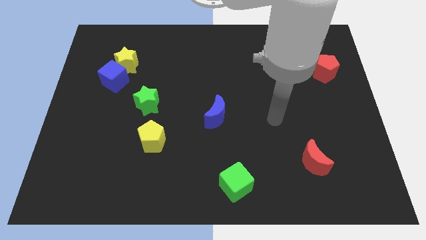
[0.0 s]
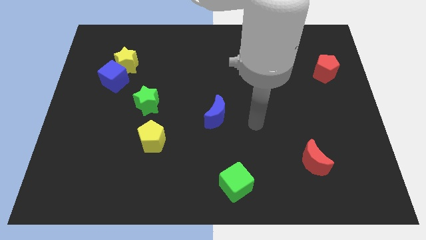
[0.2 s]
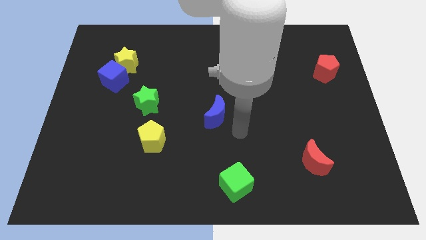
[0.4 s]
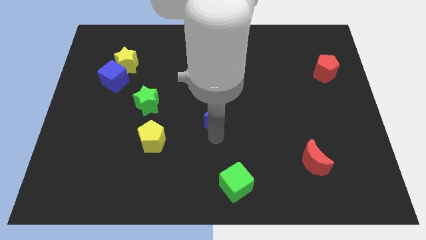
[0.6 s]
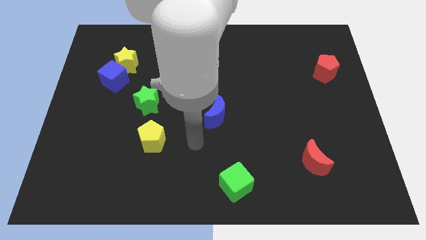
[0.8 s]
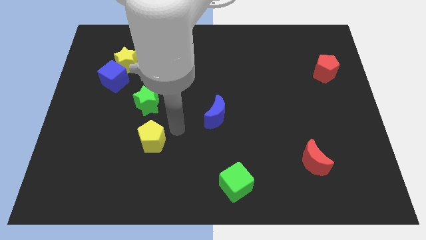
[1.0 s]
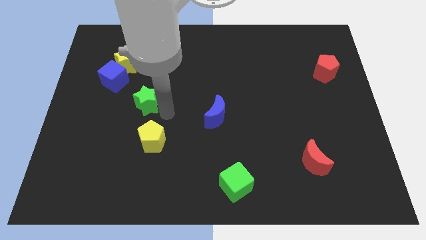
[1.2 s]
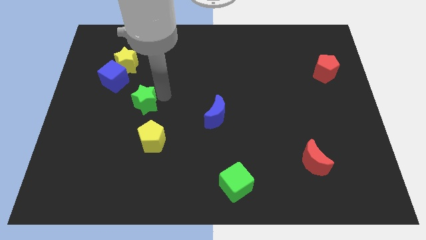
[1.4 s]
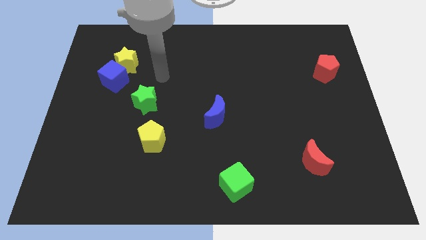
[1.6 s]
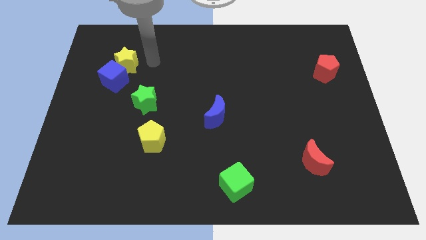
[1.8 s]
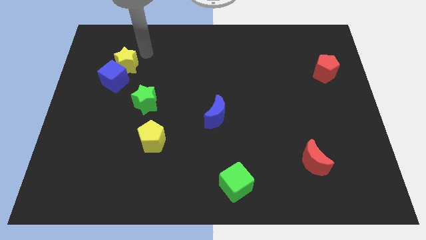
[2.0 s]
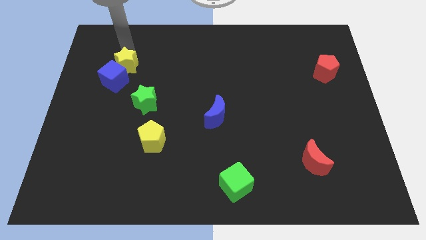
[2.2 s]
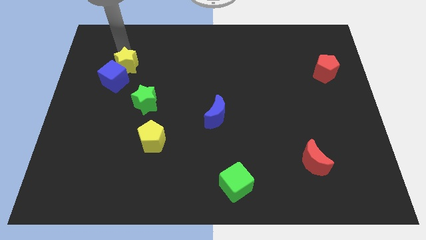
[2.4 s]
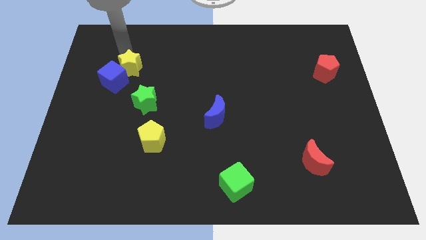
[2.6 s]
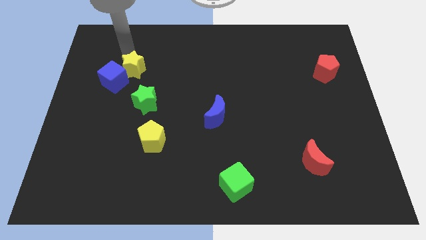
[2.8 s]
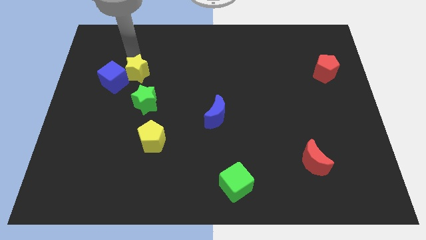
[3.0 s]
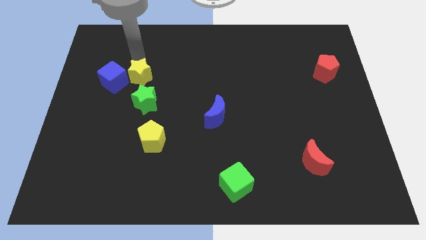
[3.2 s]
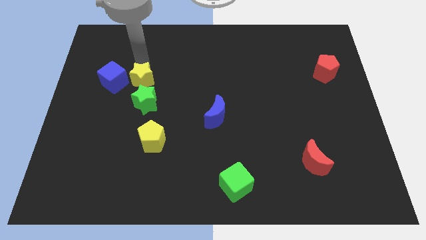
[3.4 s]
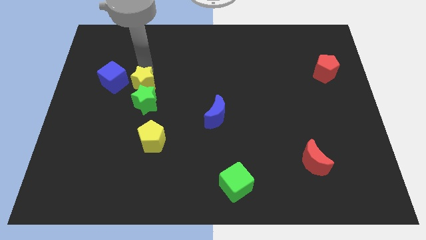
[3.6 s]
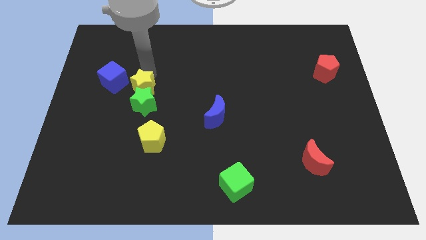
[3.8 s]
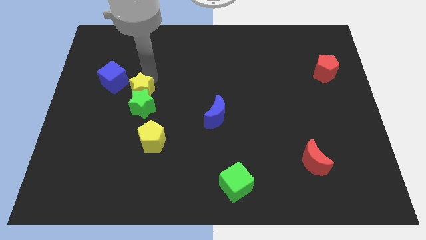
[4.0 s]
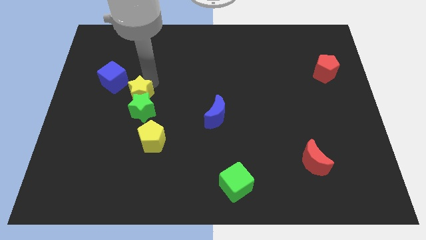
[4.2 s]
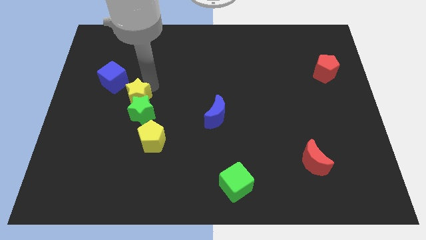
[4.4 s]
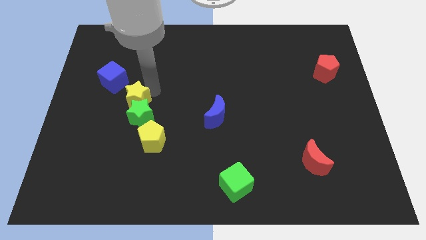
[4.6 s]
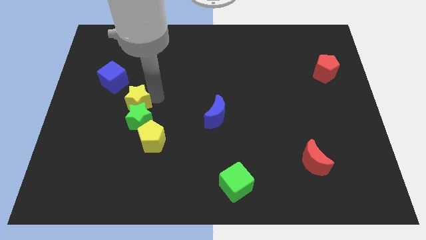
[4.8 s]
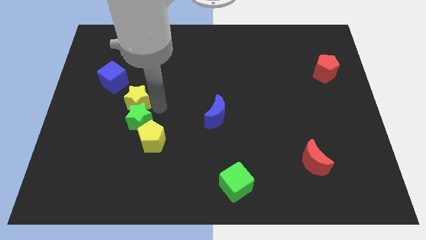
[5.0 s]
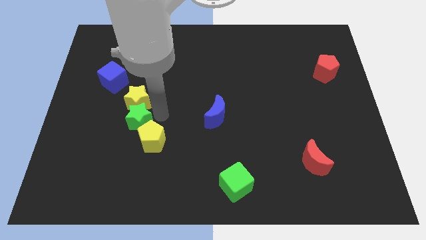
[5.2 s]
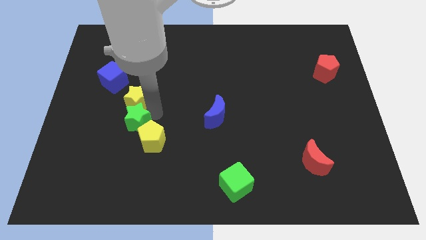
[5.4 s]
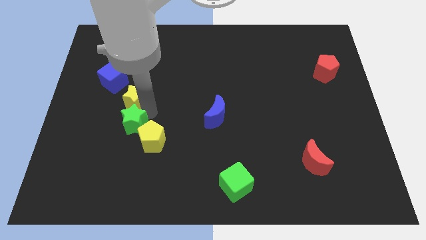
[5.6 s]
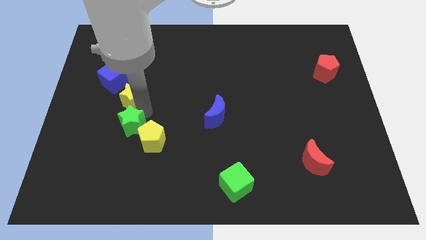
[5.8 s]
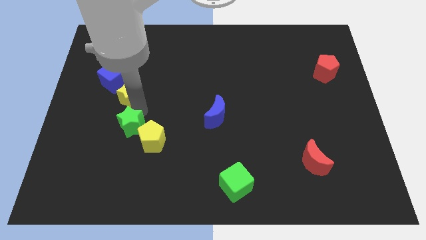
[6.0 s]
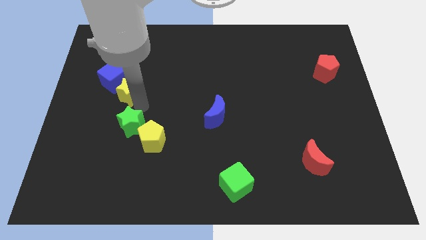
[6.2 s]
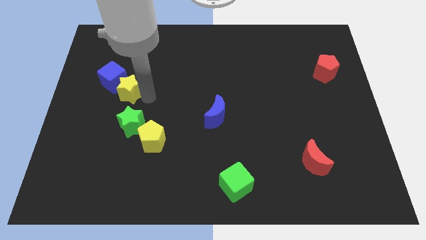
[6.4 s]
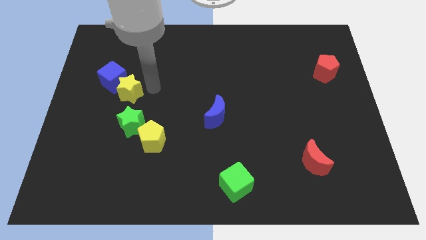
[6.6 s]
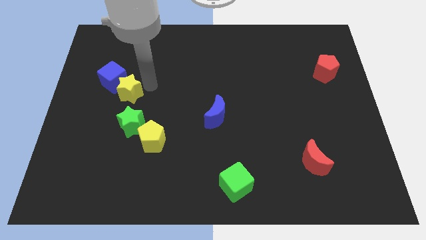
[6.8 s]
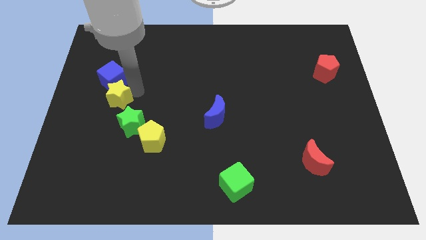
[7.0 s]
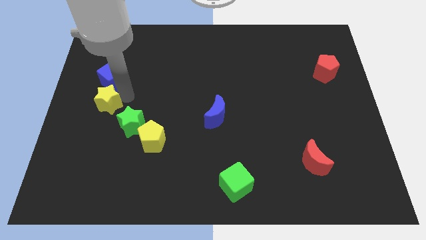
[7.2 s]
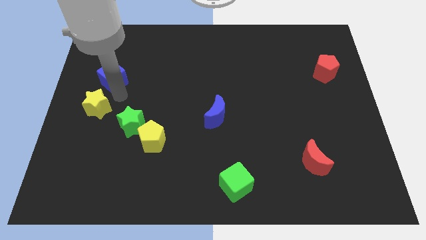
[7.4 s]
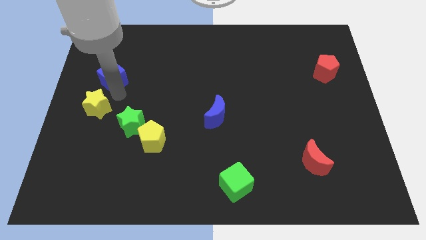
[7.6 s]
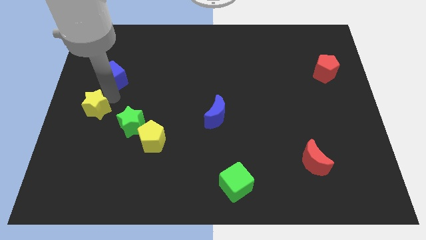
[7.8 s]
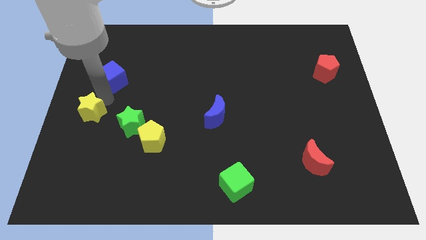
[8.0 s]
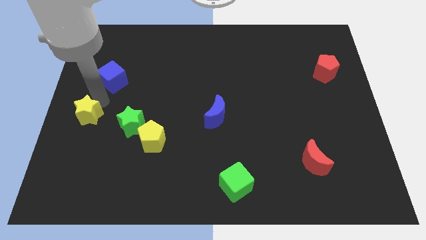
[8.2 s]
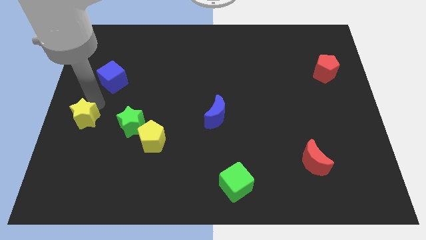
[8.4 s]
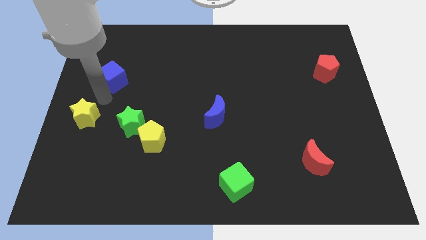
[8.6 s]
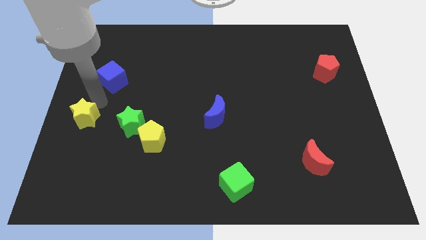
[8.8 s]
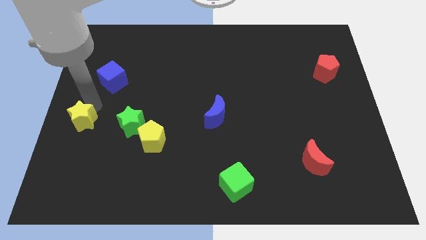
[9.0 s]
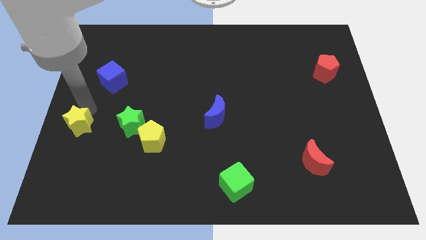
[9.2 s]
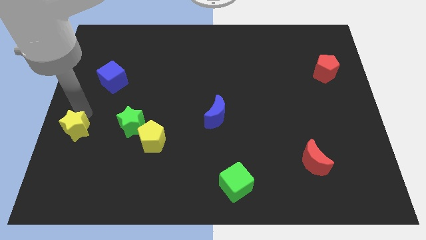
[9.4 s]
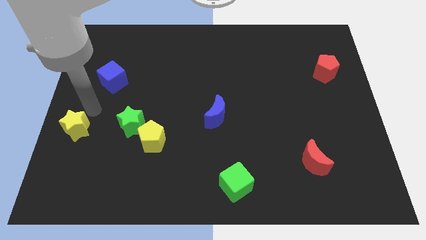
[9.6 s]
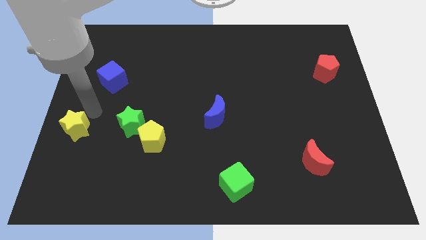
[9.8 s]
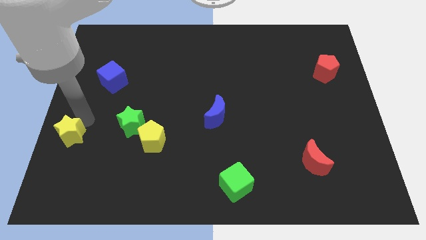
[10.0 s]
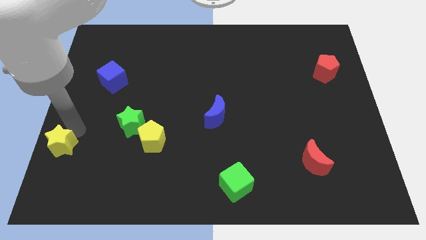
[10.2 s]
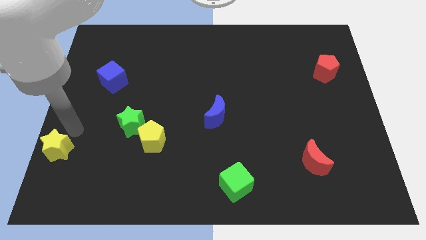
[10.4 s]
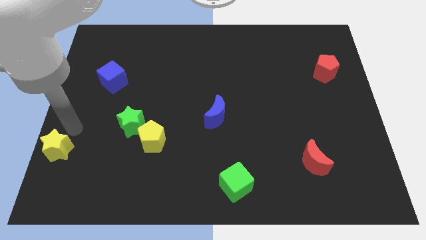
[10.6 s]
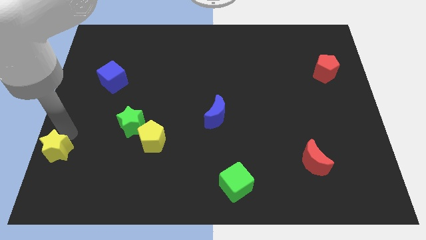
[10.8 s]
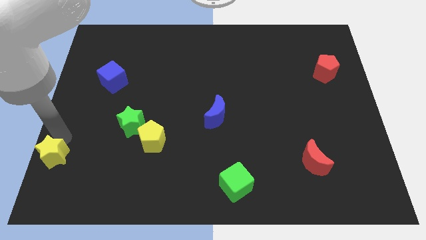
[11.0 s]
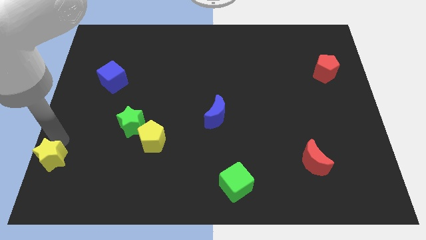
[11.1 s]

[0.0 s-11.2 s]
slide the yellow star to the lower left corner

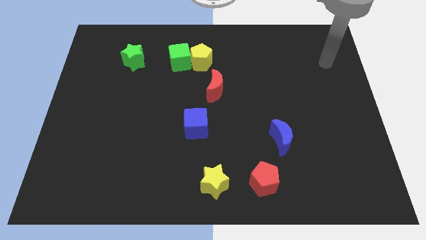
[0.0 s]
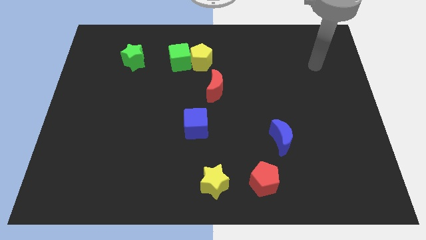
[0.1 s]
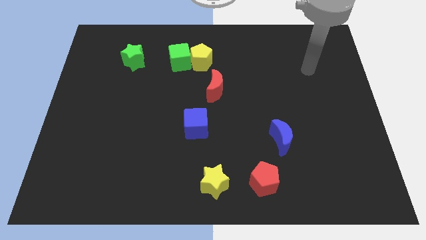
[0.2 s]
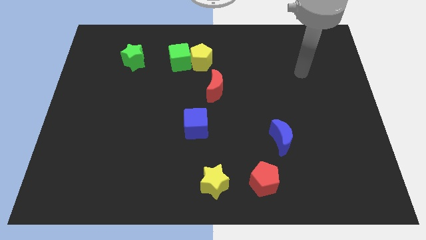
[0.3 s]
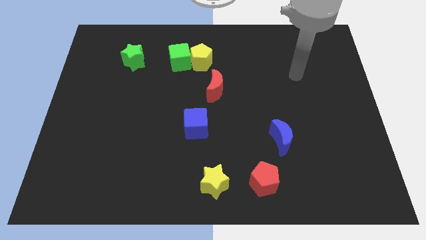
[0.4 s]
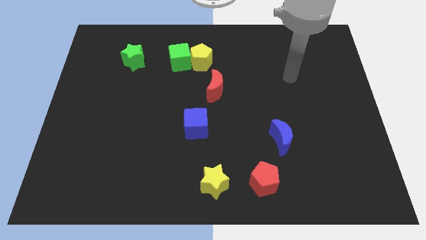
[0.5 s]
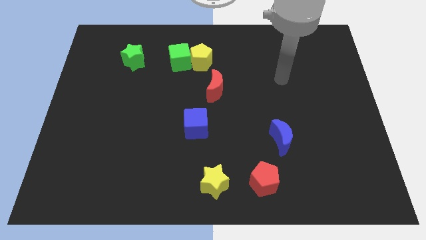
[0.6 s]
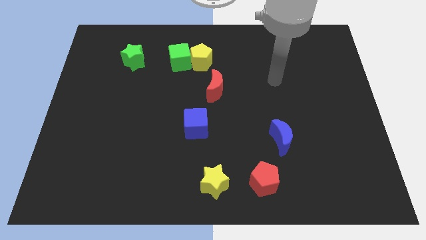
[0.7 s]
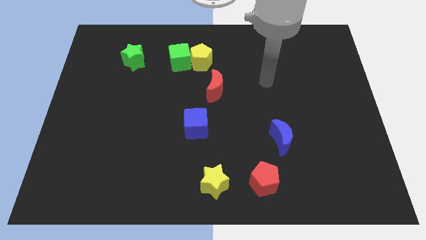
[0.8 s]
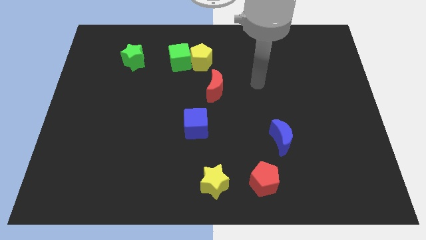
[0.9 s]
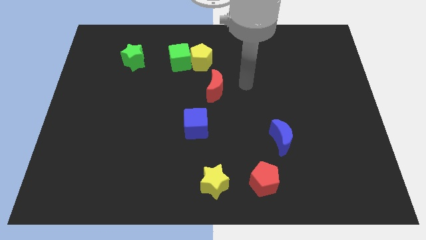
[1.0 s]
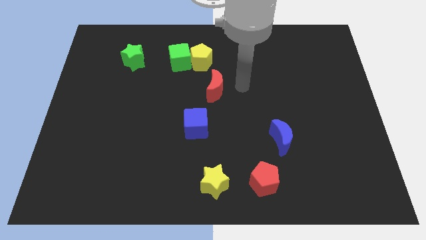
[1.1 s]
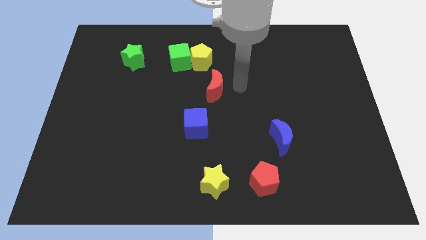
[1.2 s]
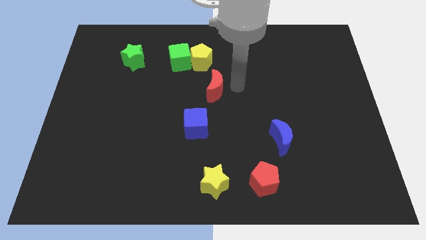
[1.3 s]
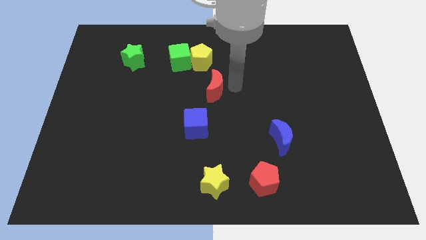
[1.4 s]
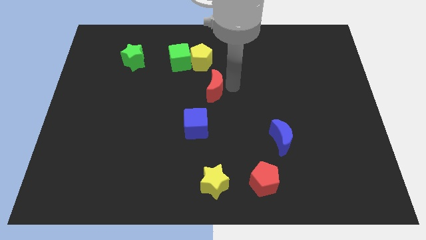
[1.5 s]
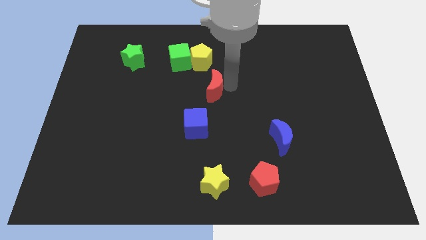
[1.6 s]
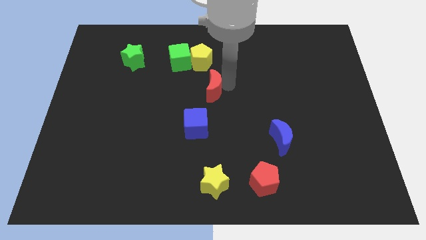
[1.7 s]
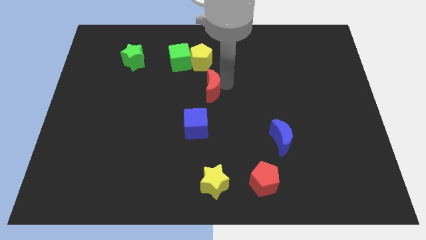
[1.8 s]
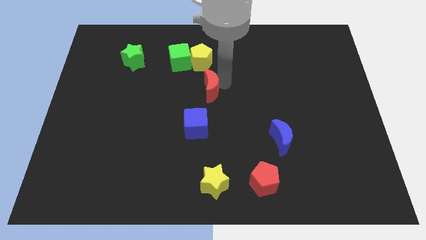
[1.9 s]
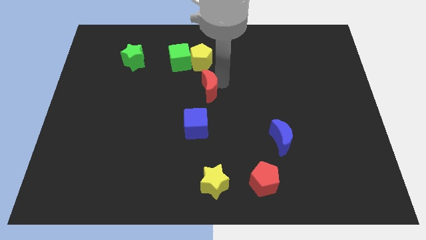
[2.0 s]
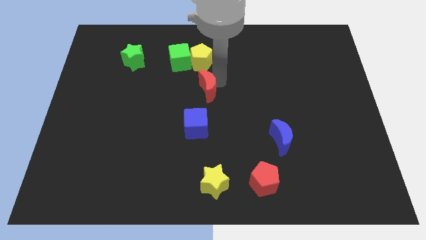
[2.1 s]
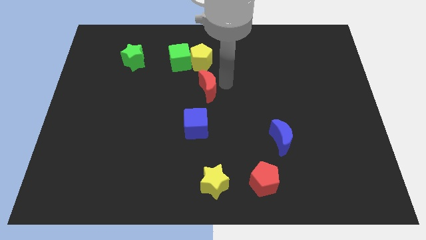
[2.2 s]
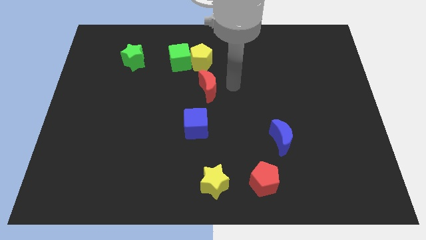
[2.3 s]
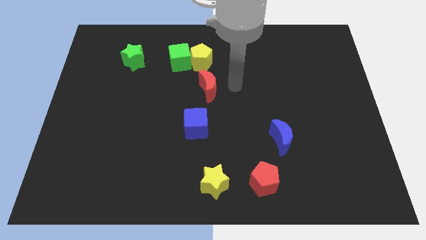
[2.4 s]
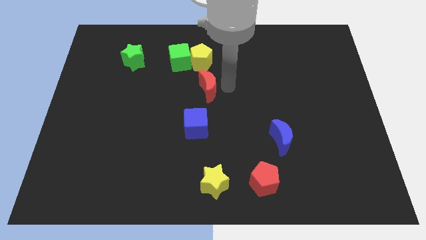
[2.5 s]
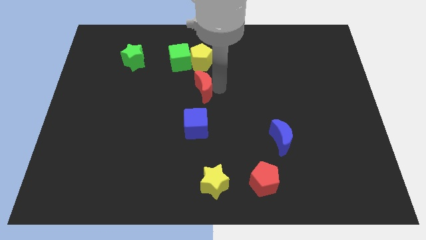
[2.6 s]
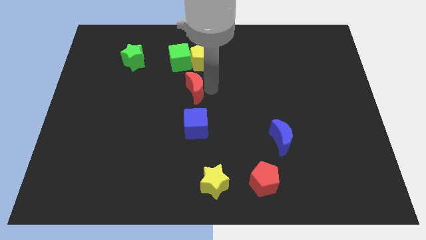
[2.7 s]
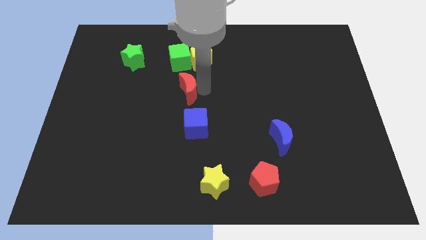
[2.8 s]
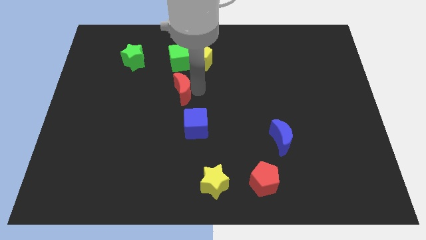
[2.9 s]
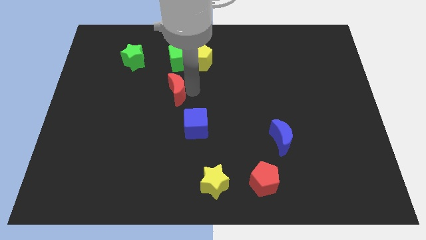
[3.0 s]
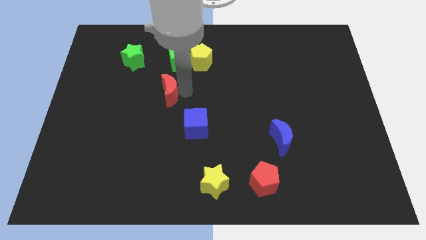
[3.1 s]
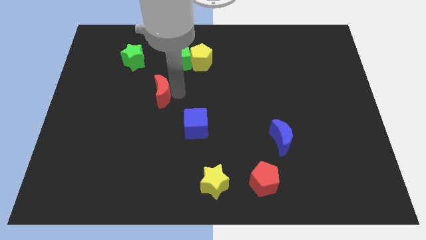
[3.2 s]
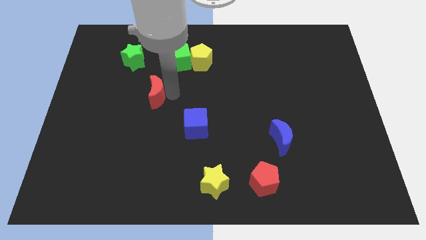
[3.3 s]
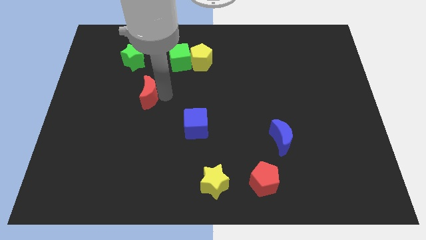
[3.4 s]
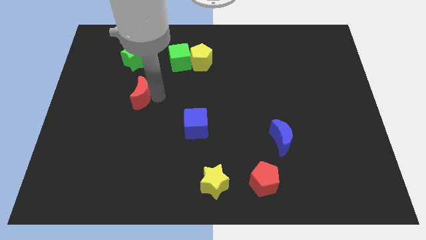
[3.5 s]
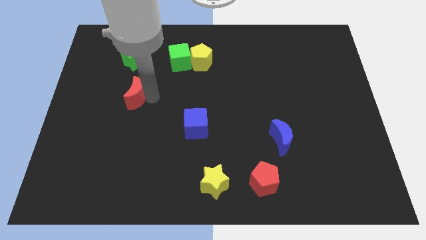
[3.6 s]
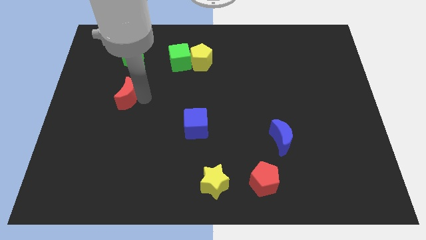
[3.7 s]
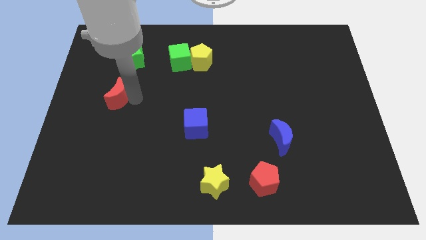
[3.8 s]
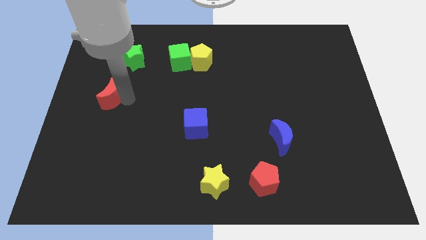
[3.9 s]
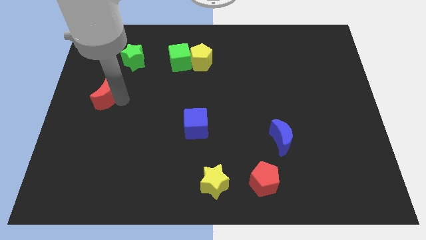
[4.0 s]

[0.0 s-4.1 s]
put the red moon to the left side
